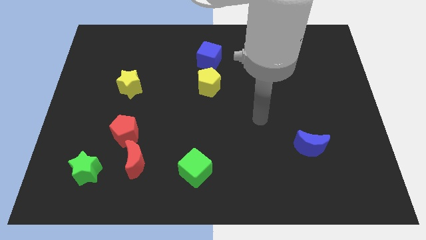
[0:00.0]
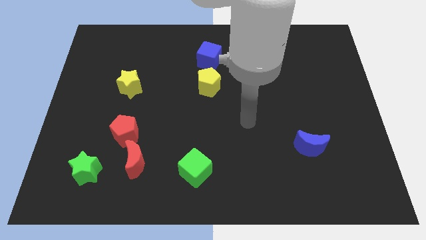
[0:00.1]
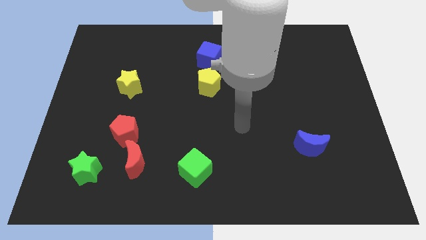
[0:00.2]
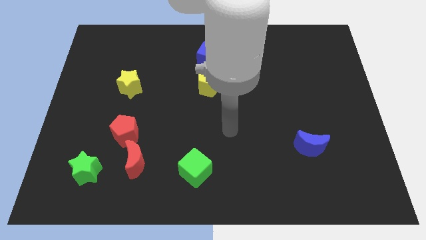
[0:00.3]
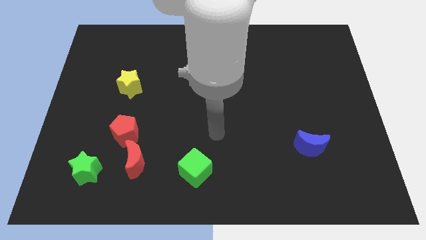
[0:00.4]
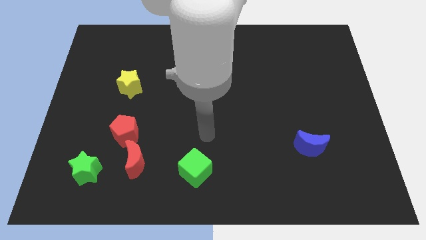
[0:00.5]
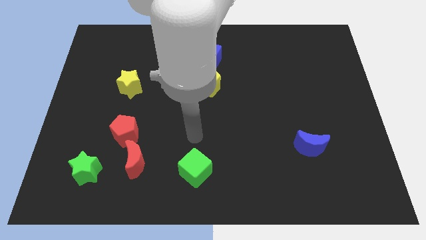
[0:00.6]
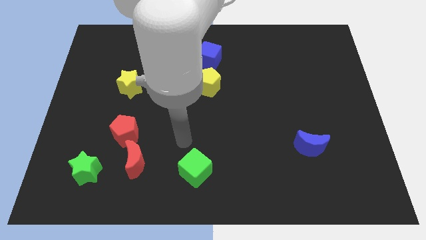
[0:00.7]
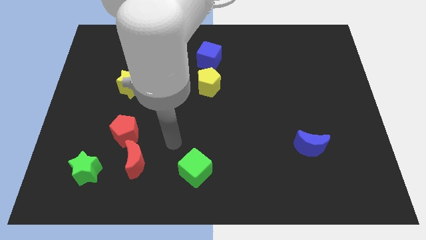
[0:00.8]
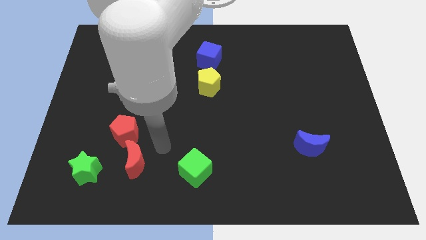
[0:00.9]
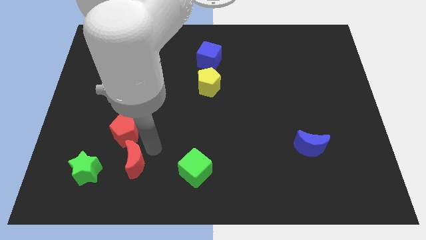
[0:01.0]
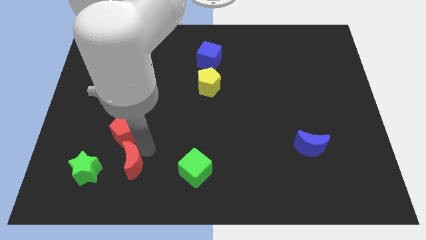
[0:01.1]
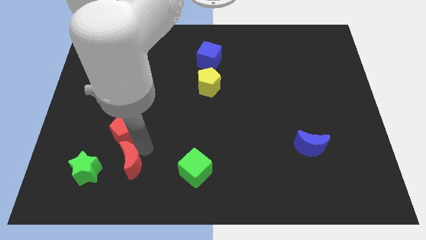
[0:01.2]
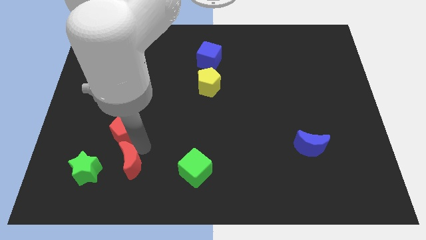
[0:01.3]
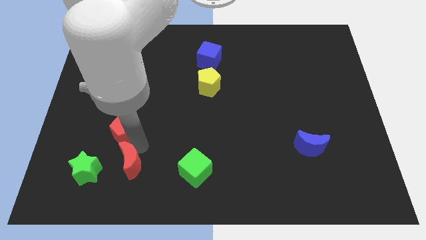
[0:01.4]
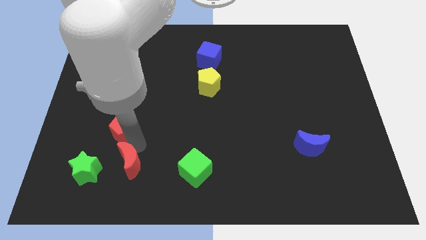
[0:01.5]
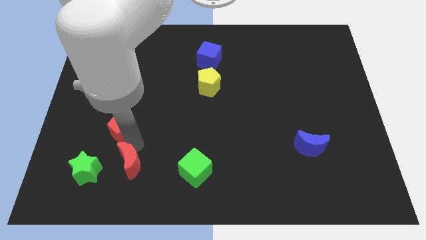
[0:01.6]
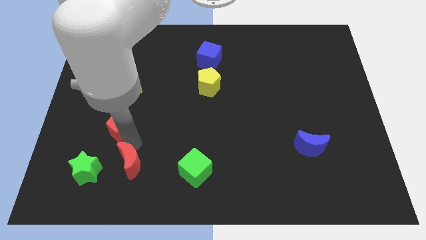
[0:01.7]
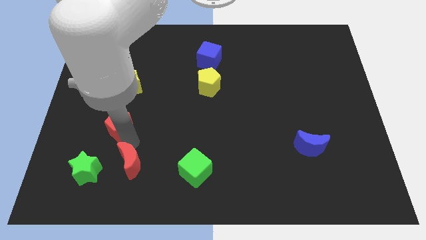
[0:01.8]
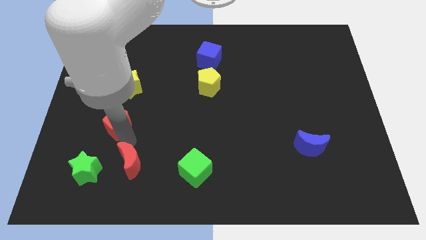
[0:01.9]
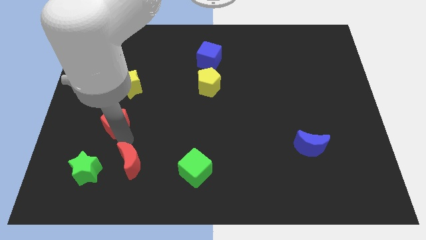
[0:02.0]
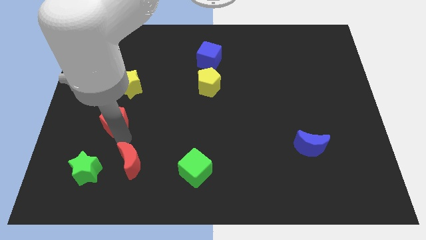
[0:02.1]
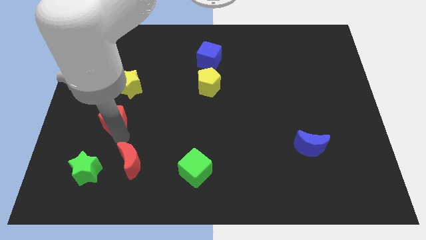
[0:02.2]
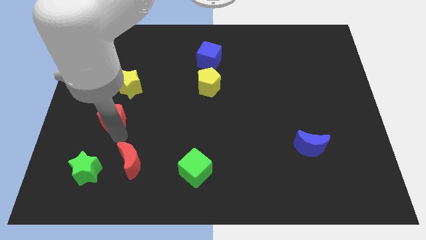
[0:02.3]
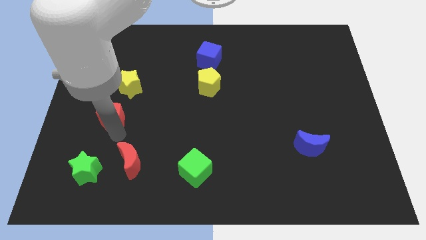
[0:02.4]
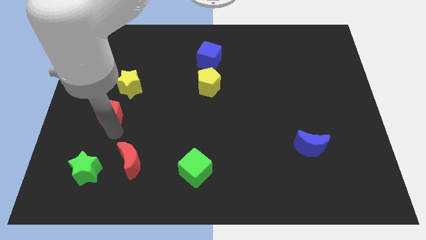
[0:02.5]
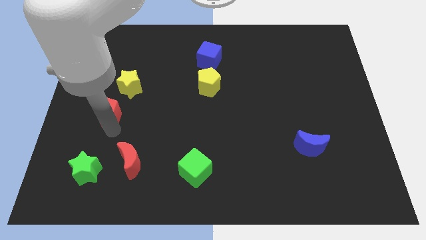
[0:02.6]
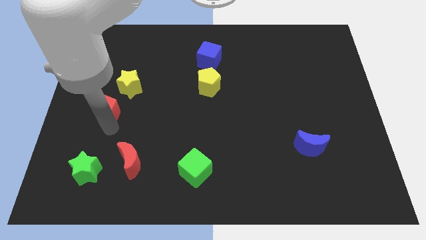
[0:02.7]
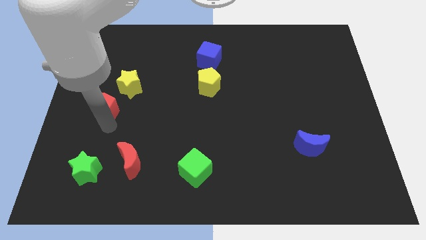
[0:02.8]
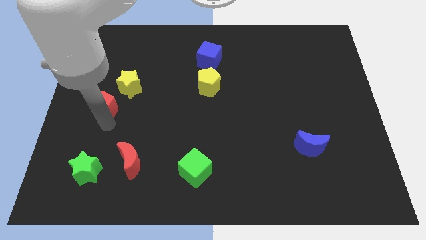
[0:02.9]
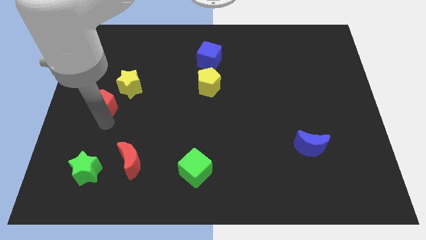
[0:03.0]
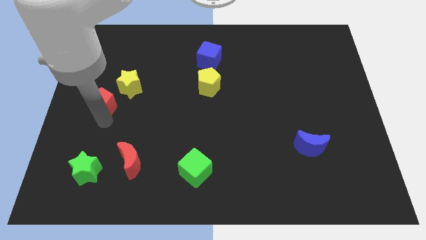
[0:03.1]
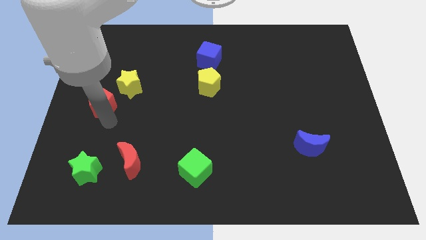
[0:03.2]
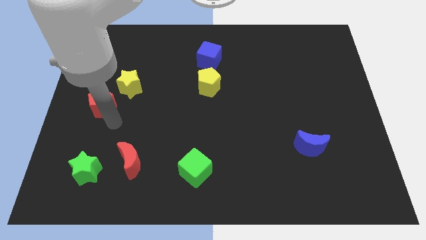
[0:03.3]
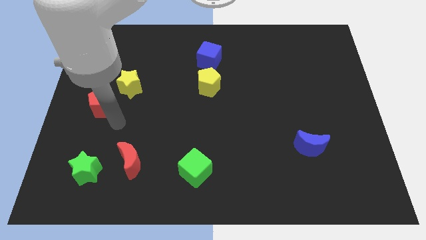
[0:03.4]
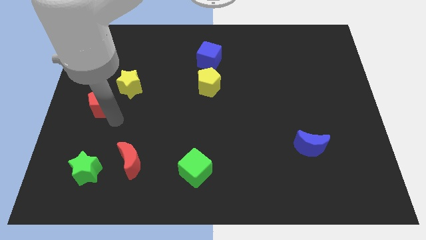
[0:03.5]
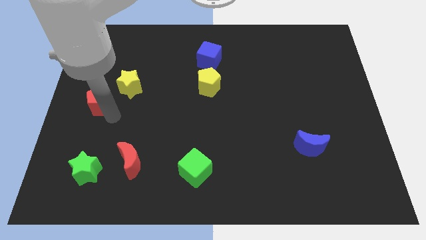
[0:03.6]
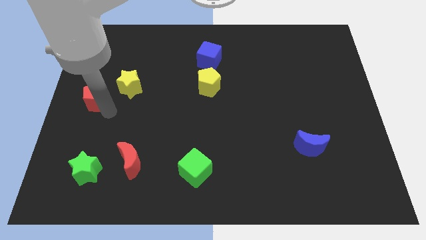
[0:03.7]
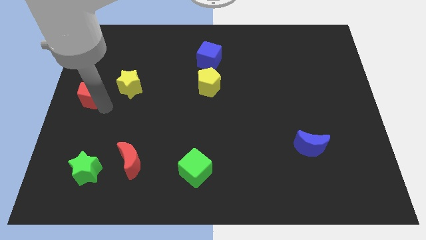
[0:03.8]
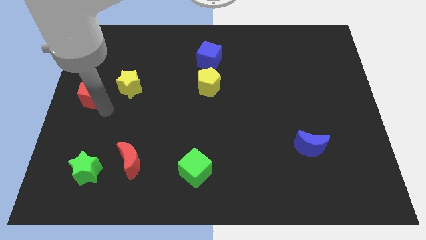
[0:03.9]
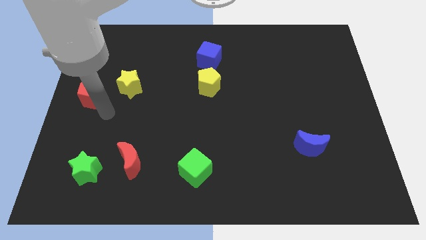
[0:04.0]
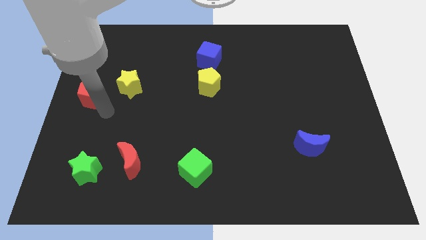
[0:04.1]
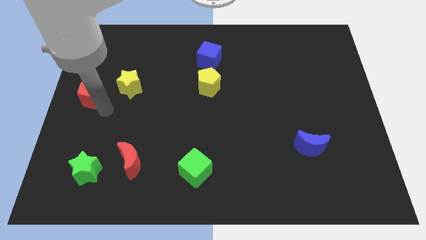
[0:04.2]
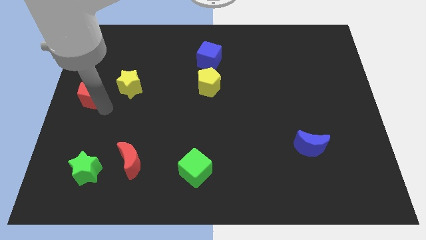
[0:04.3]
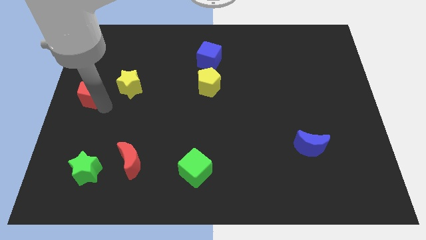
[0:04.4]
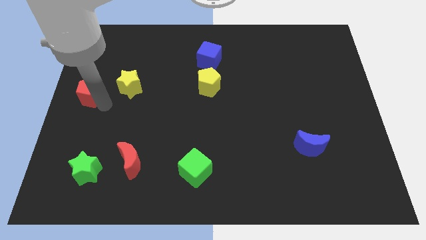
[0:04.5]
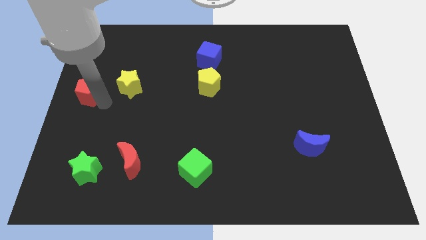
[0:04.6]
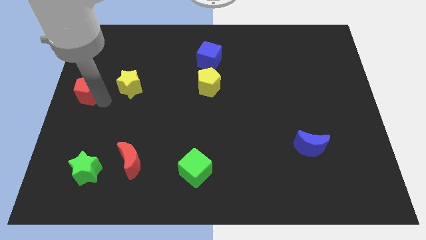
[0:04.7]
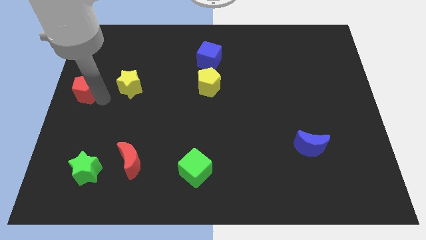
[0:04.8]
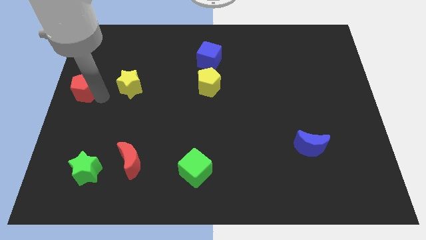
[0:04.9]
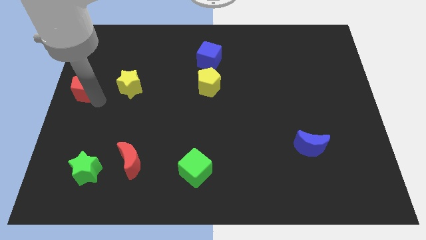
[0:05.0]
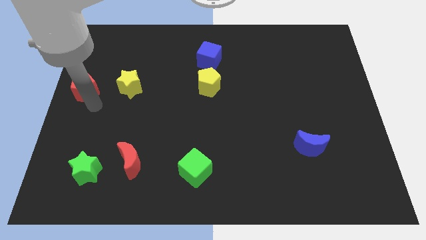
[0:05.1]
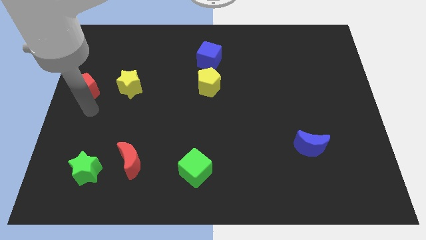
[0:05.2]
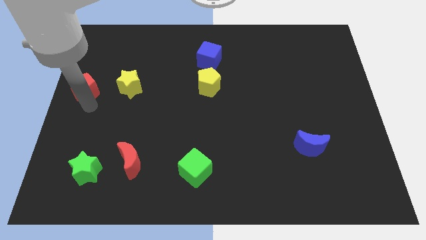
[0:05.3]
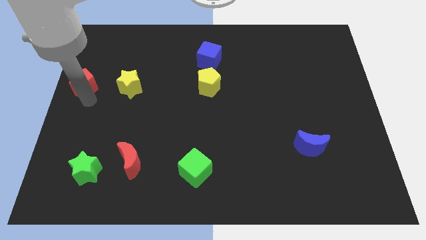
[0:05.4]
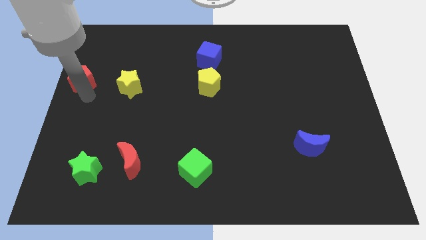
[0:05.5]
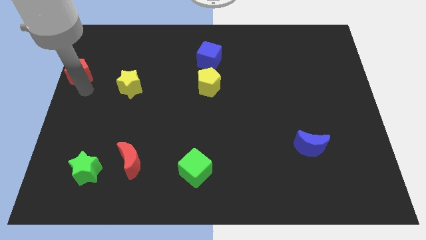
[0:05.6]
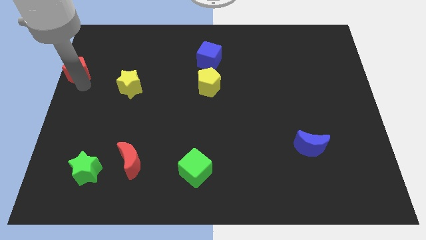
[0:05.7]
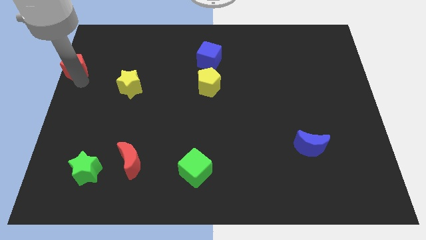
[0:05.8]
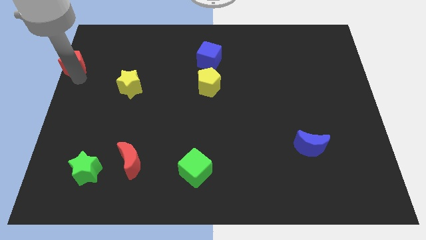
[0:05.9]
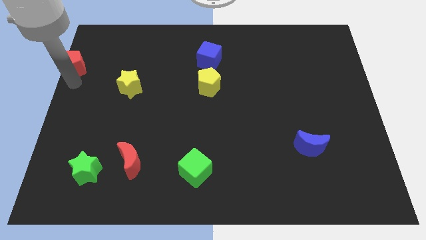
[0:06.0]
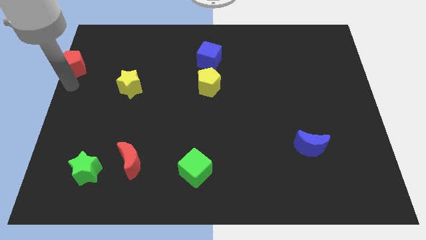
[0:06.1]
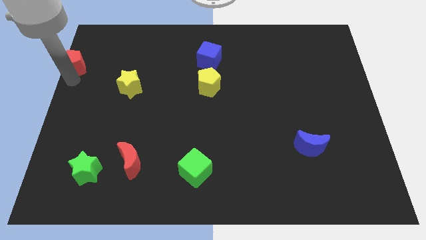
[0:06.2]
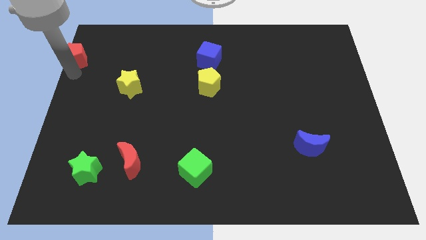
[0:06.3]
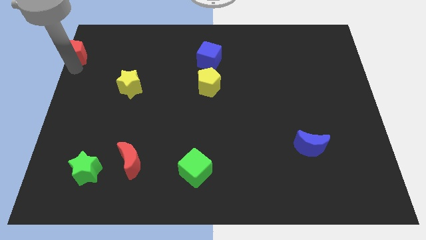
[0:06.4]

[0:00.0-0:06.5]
move the red pentagon to the top left
